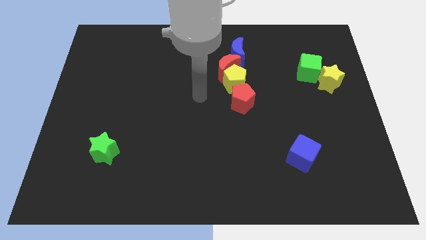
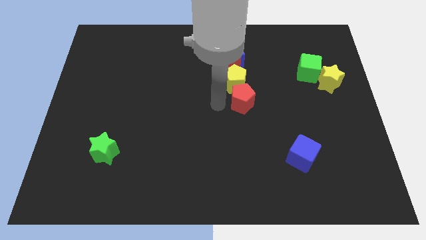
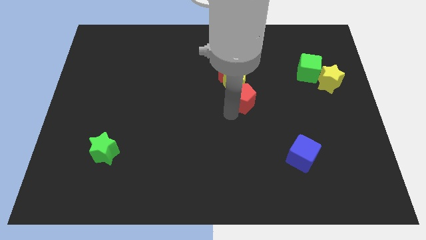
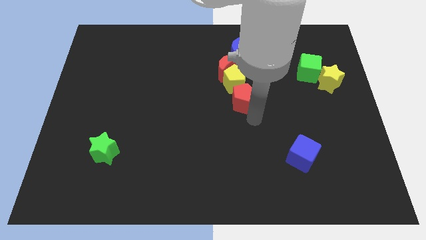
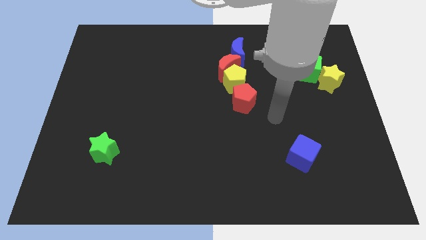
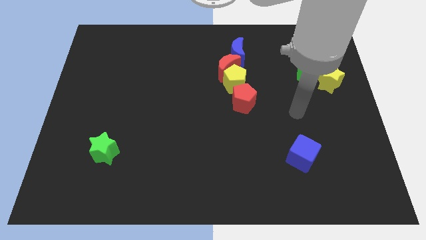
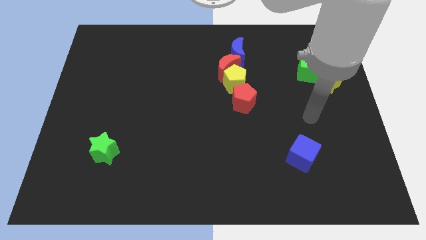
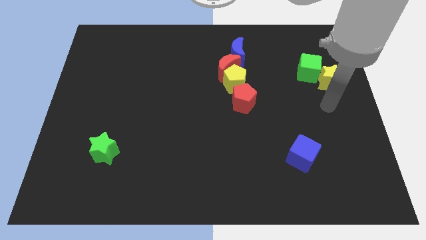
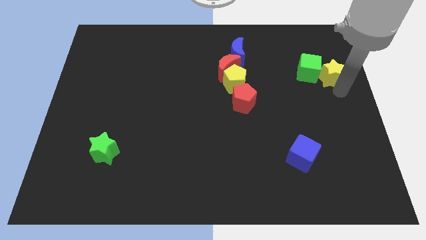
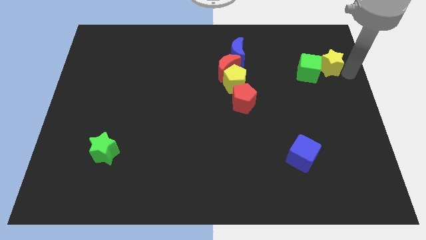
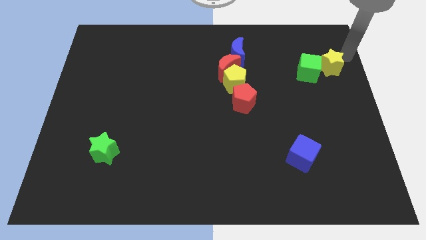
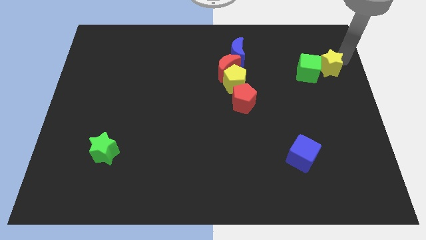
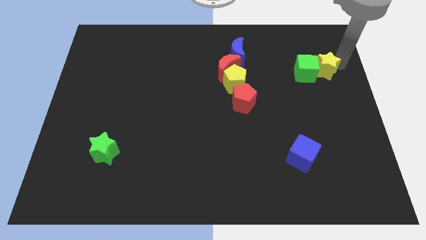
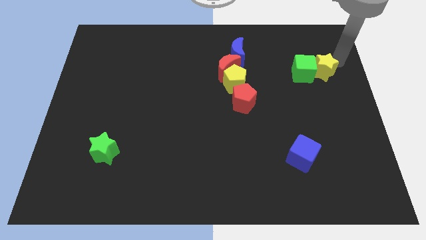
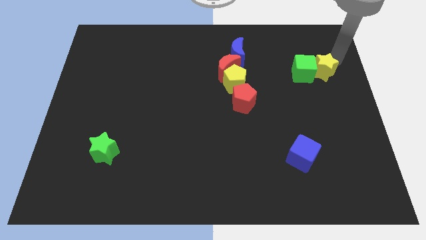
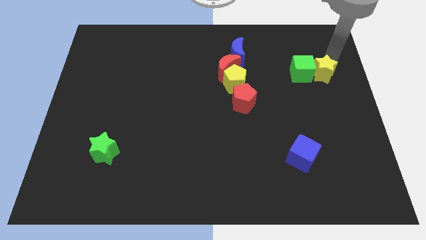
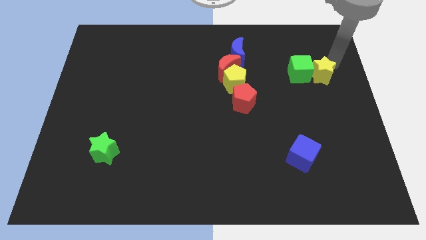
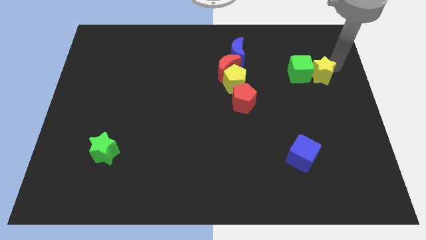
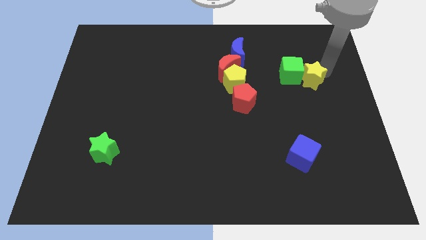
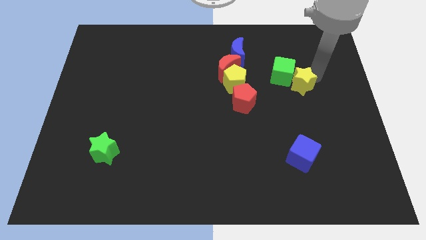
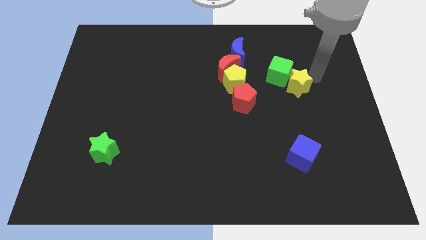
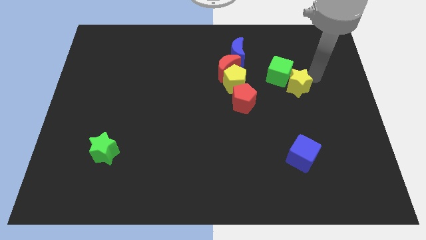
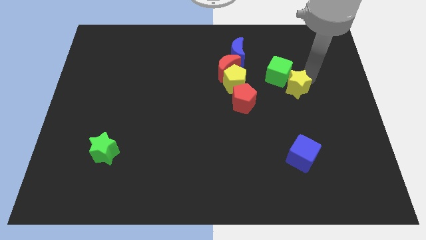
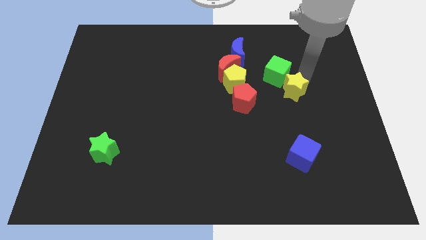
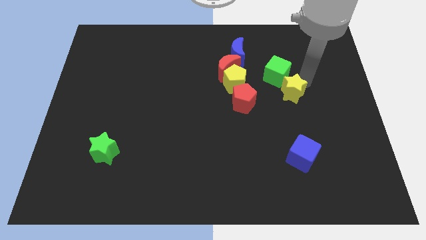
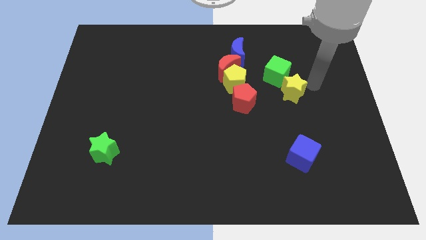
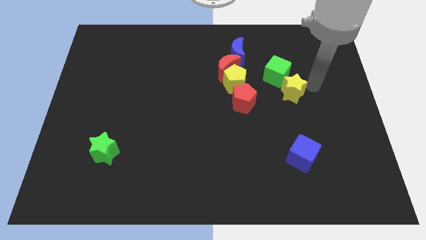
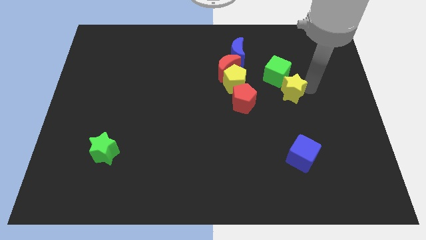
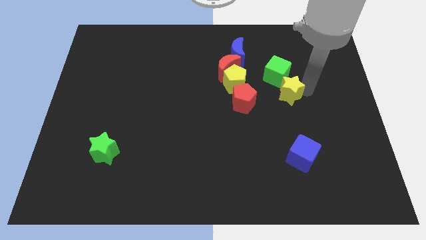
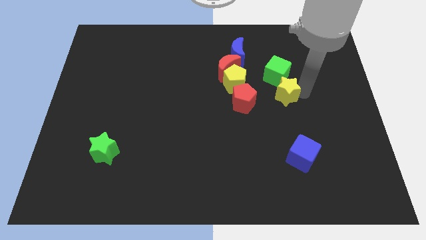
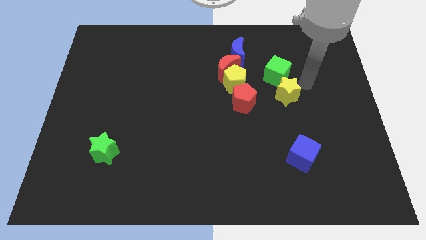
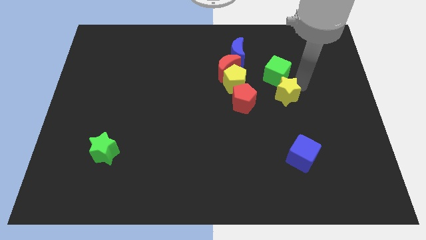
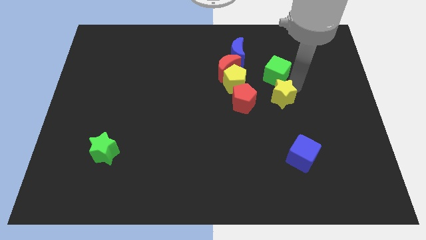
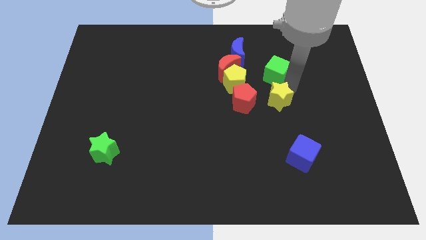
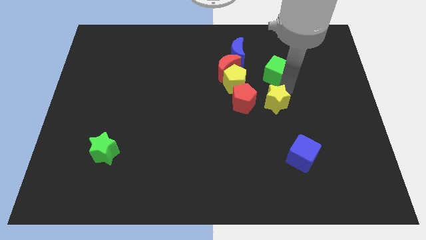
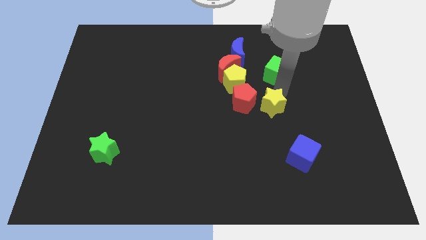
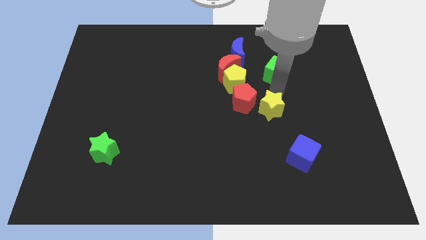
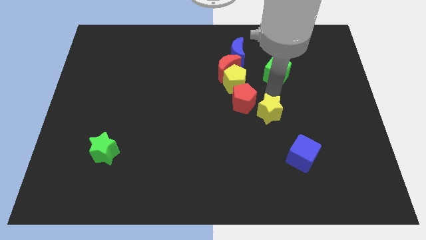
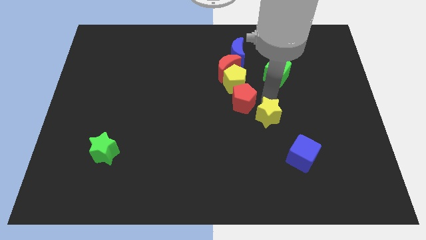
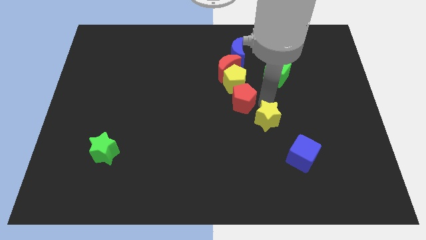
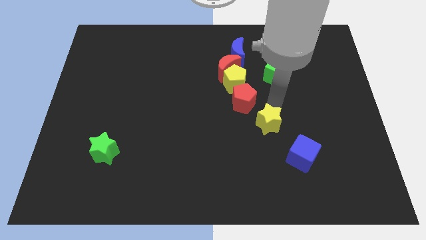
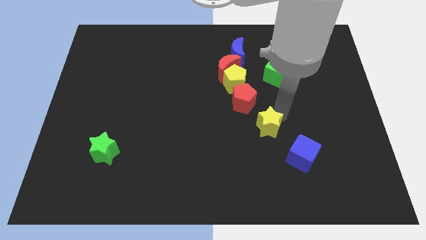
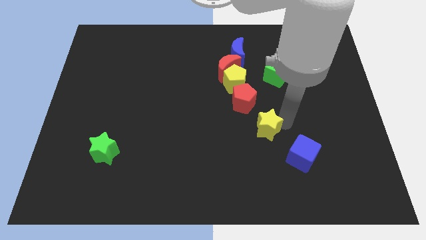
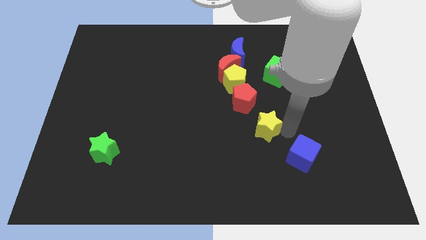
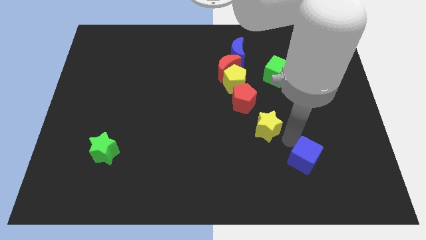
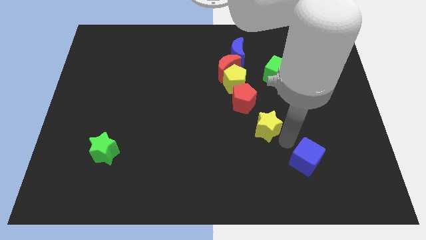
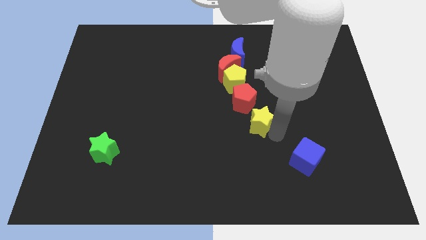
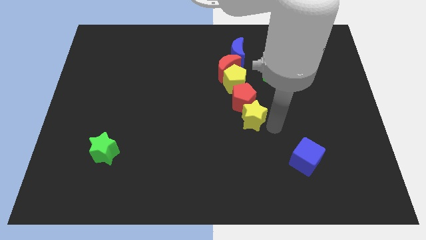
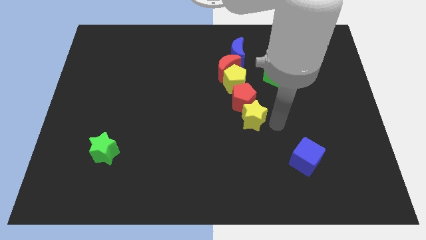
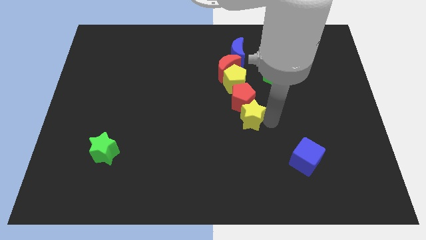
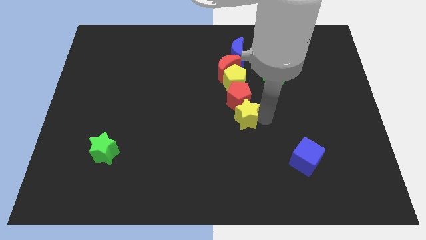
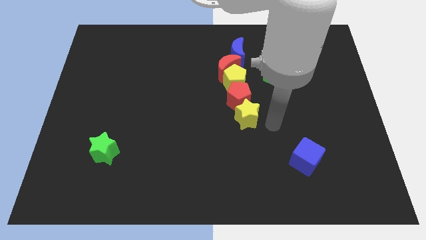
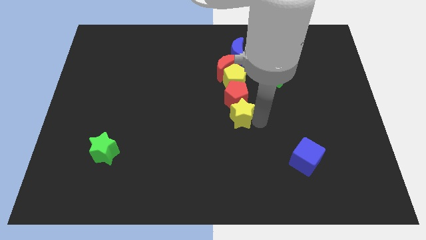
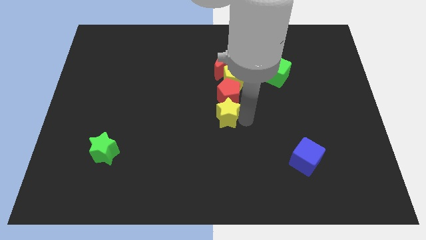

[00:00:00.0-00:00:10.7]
move the yellow star to the left

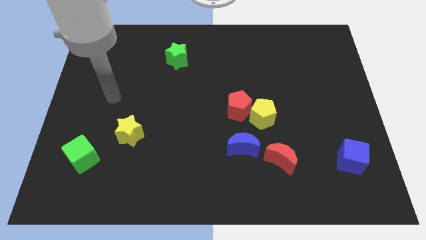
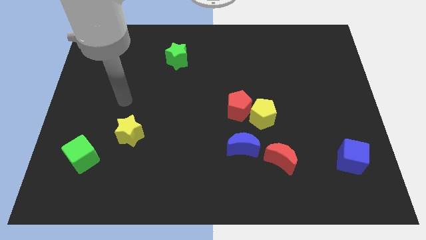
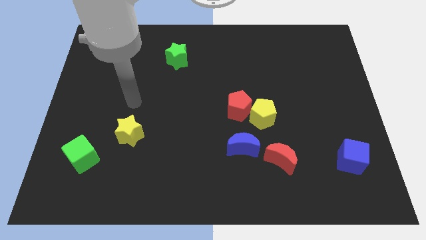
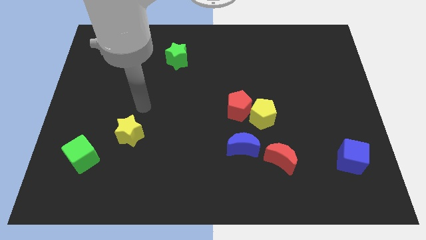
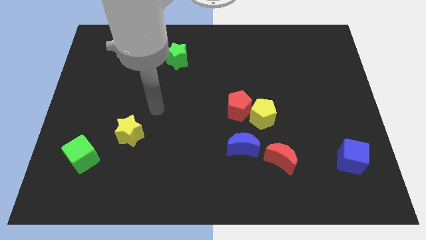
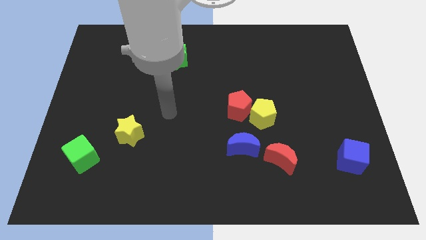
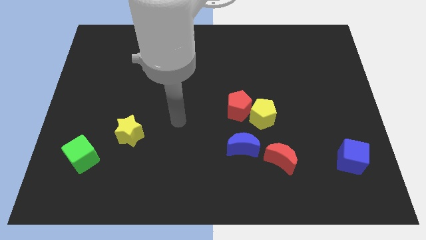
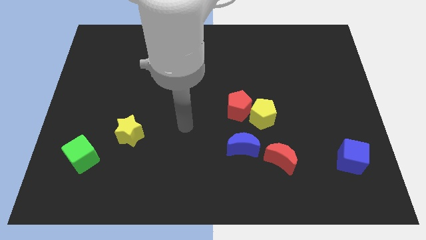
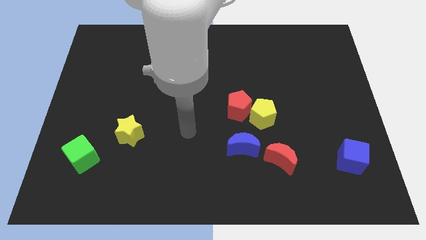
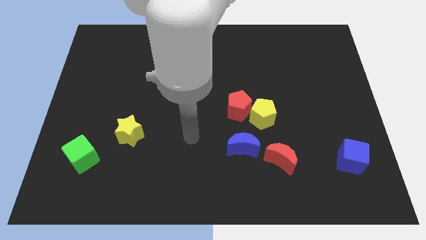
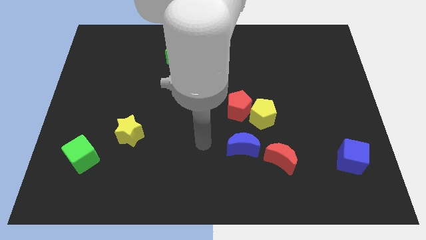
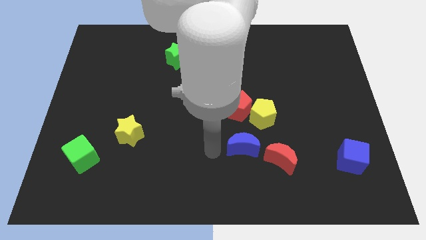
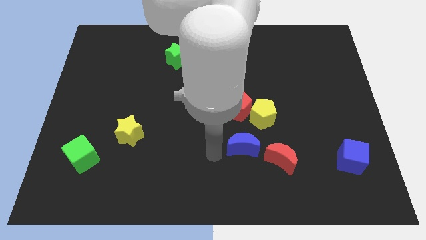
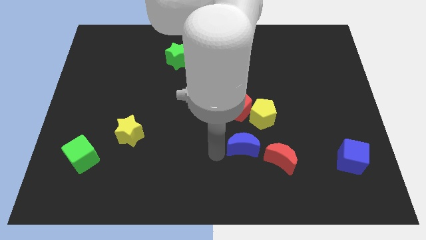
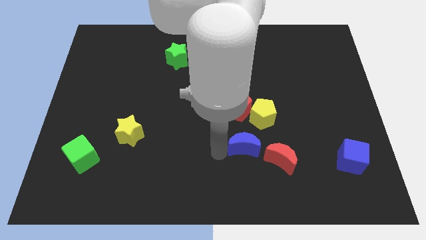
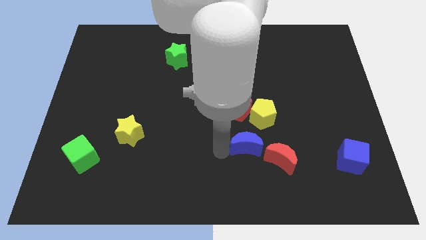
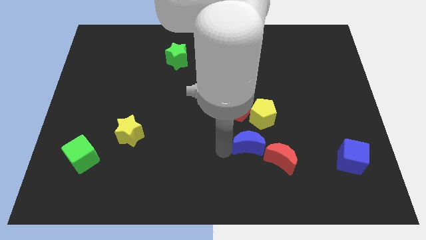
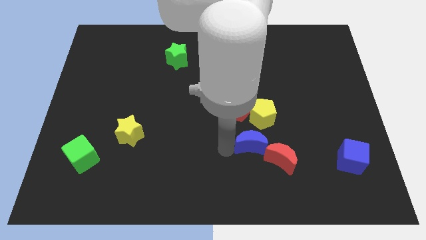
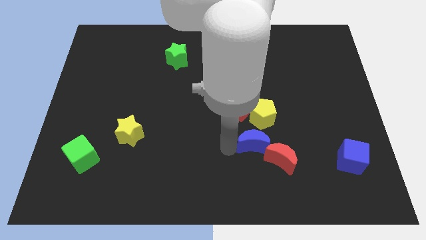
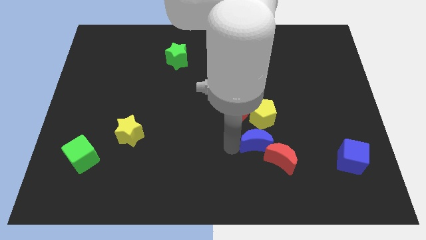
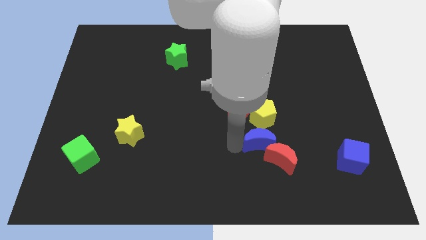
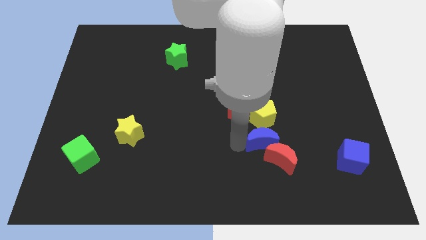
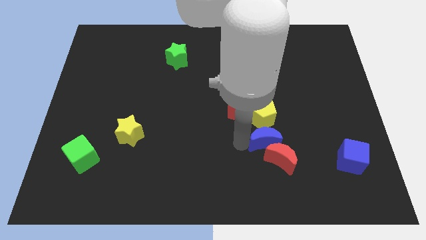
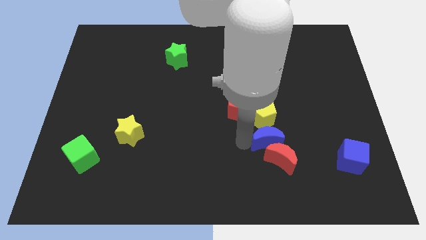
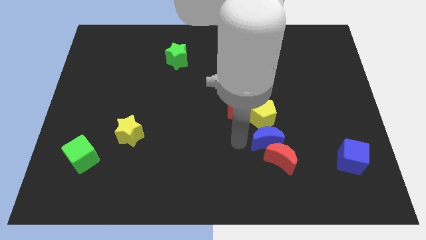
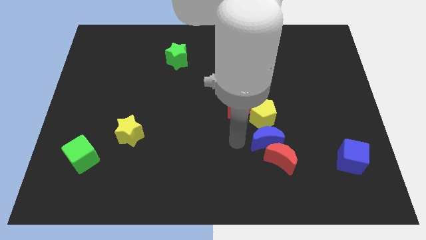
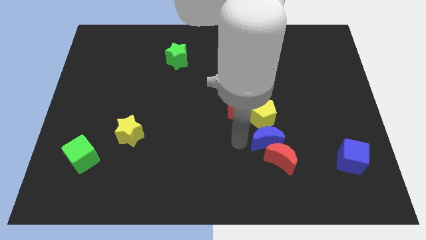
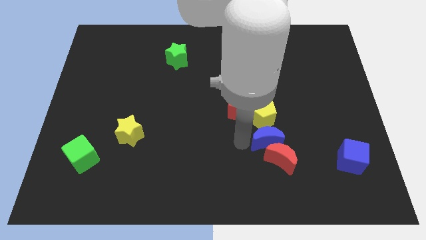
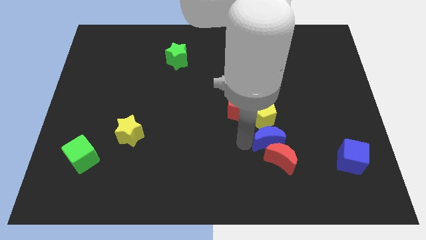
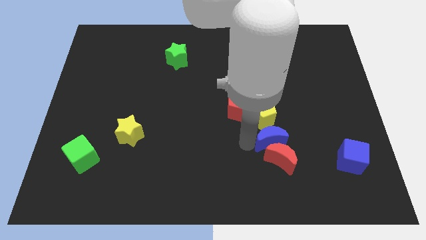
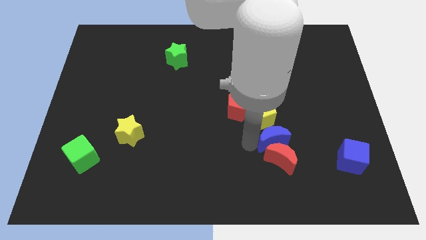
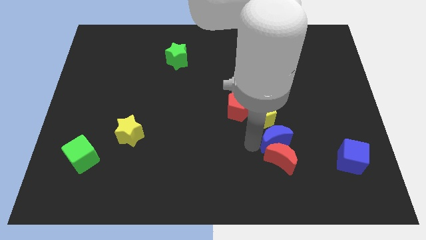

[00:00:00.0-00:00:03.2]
move the blue moon somewhat to the right
